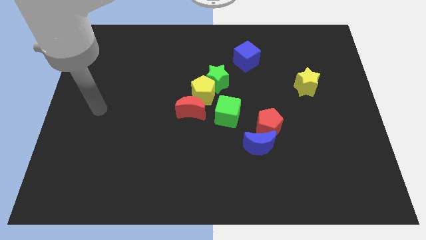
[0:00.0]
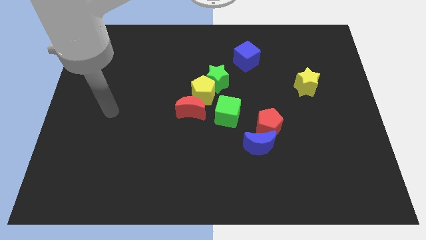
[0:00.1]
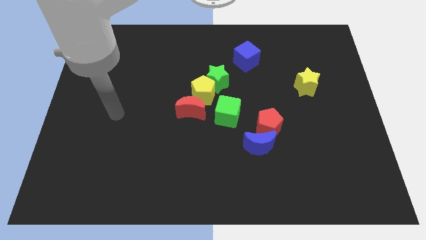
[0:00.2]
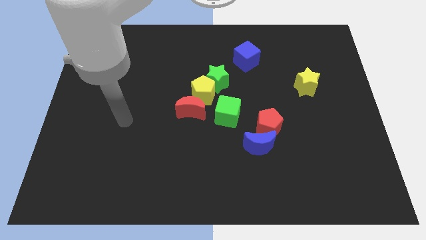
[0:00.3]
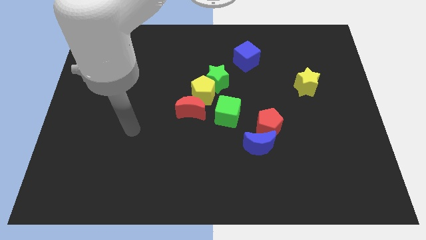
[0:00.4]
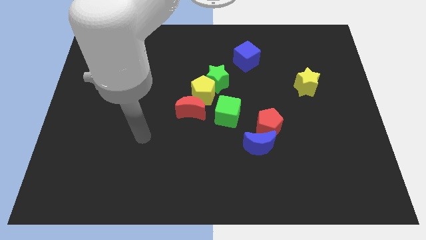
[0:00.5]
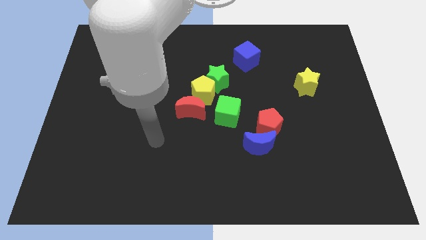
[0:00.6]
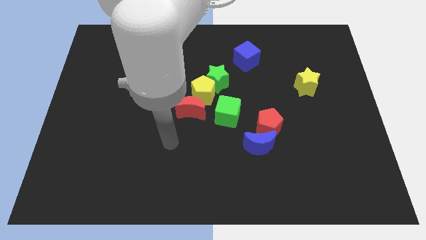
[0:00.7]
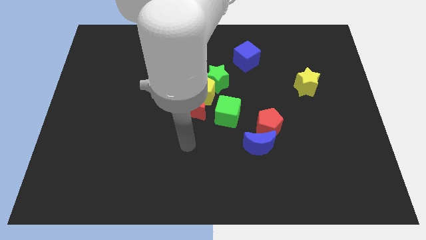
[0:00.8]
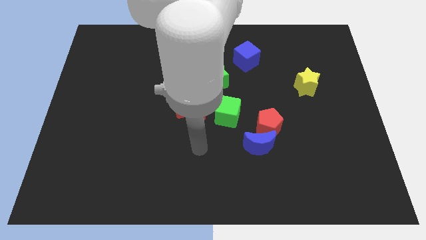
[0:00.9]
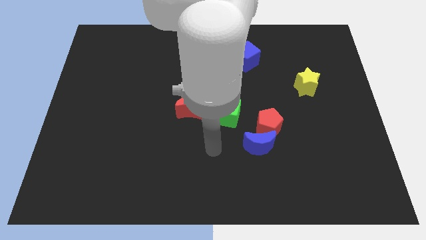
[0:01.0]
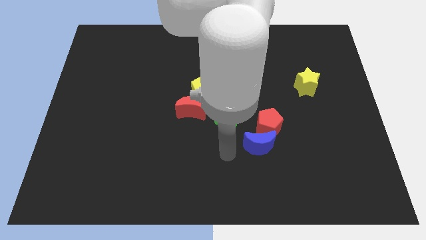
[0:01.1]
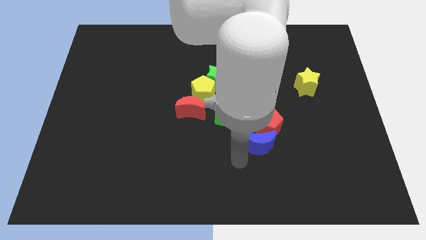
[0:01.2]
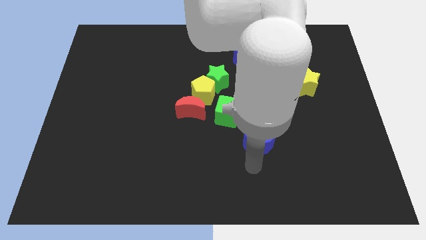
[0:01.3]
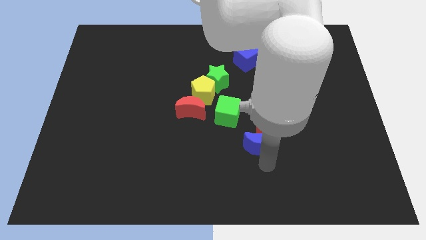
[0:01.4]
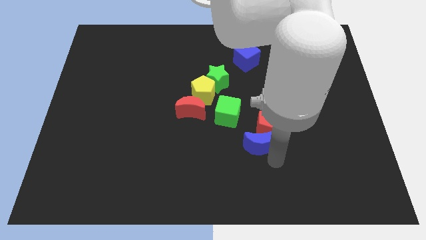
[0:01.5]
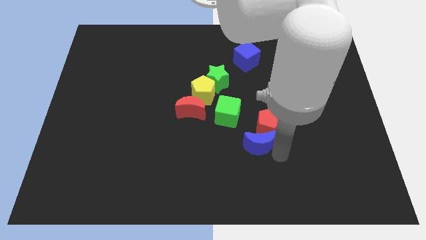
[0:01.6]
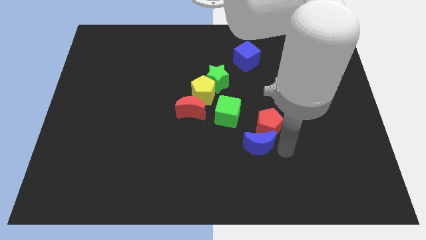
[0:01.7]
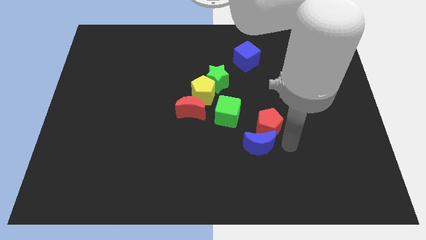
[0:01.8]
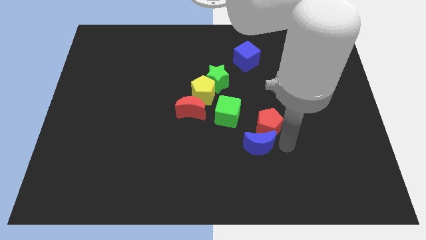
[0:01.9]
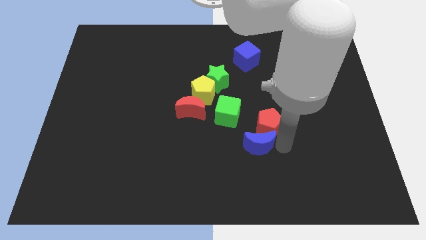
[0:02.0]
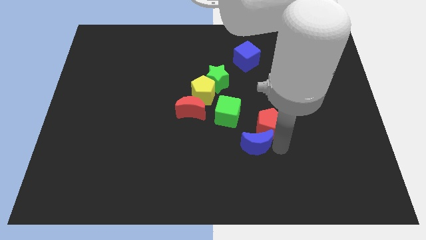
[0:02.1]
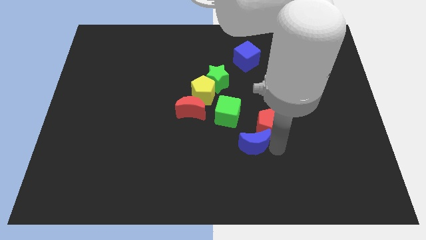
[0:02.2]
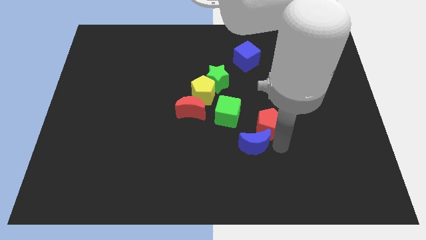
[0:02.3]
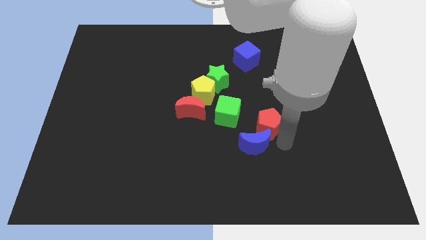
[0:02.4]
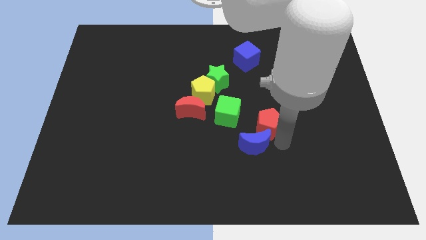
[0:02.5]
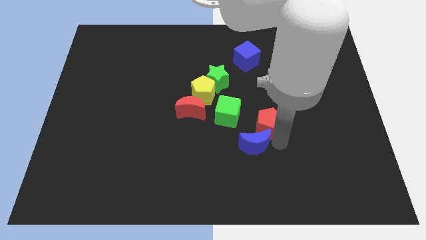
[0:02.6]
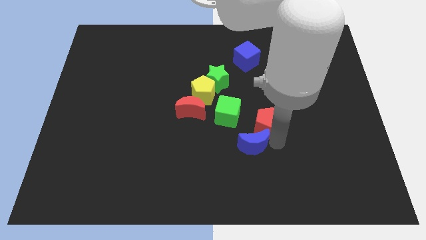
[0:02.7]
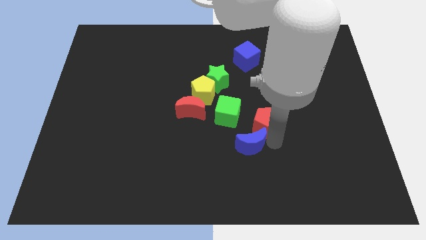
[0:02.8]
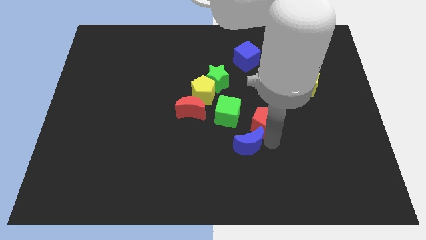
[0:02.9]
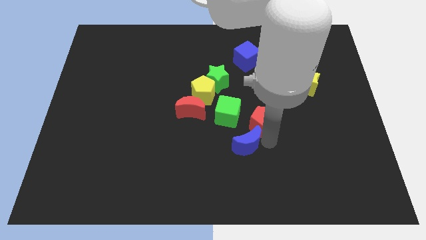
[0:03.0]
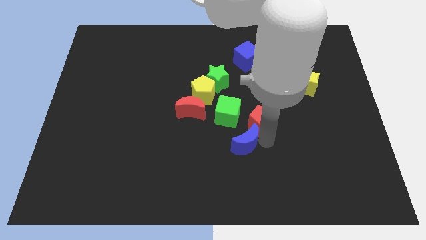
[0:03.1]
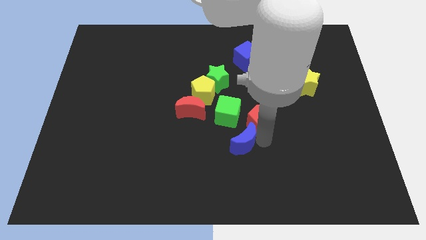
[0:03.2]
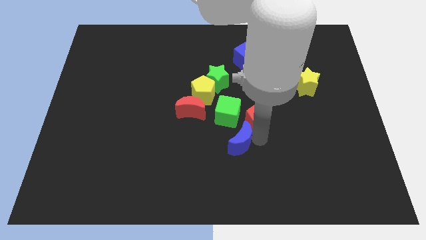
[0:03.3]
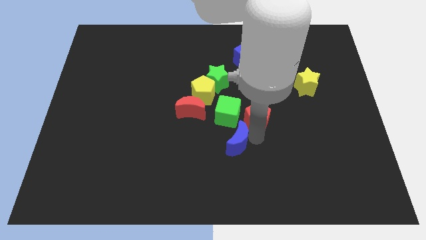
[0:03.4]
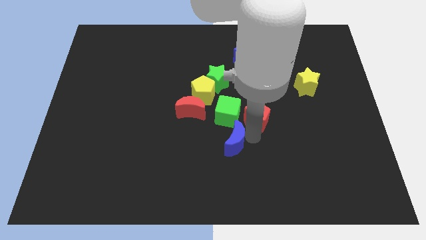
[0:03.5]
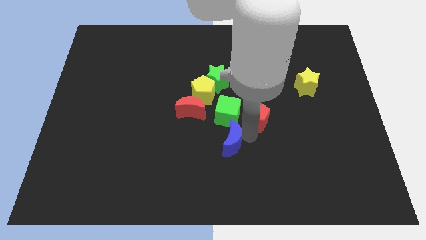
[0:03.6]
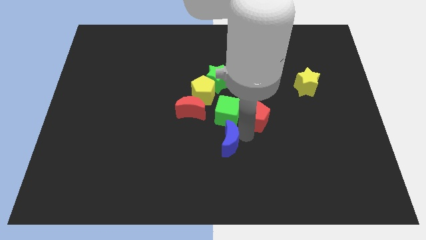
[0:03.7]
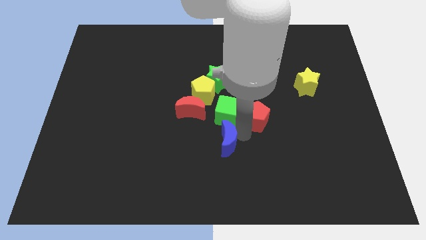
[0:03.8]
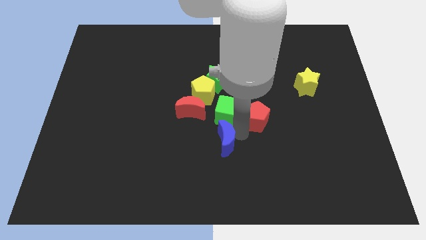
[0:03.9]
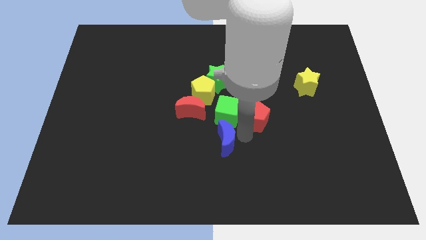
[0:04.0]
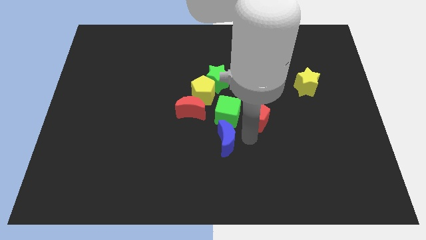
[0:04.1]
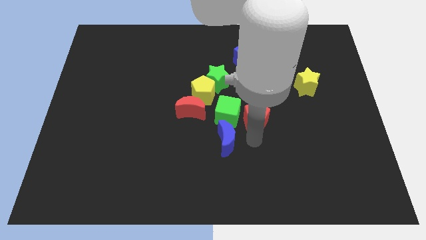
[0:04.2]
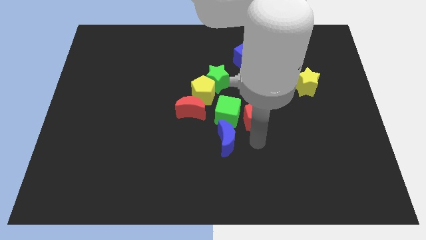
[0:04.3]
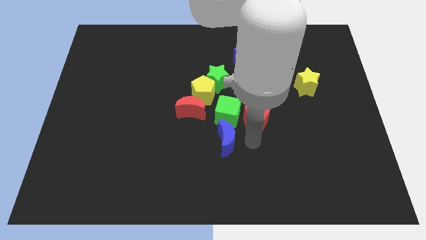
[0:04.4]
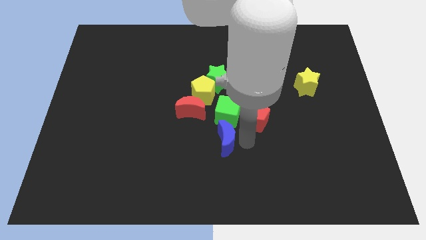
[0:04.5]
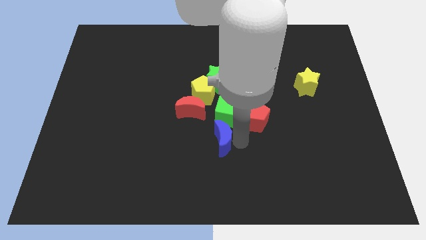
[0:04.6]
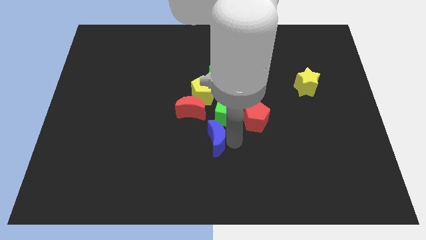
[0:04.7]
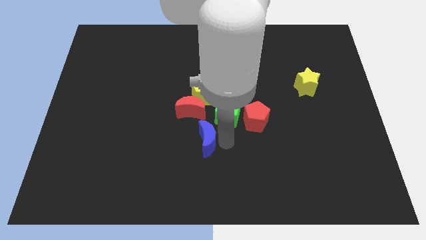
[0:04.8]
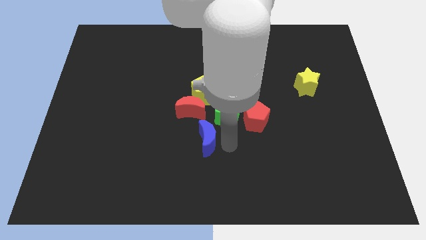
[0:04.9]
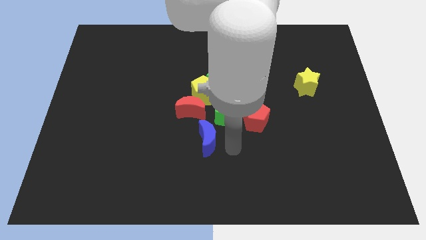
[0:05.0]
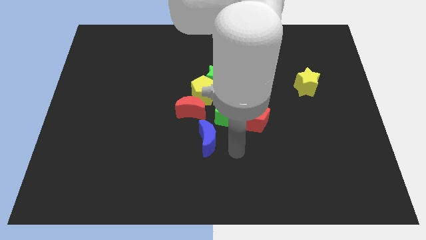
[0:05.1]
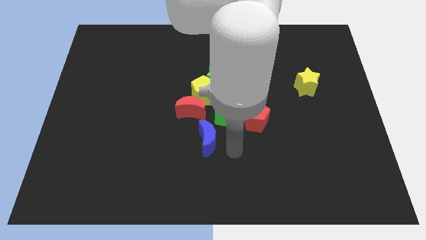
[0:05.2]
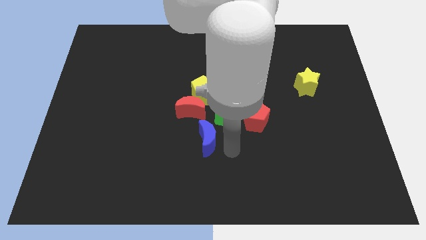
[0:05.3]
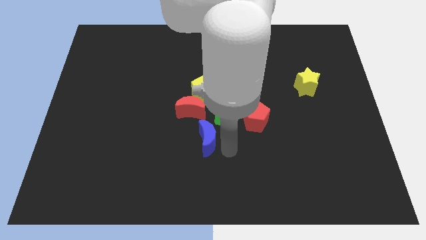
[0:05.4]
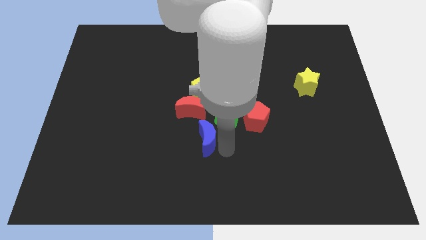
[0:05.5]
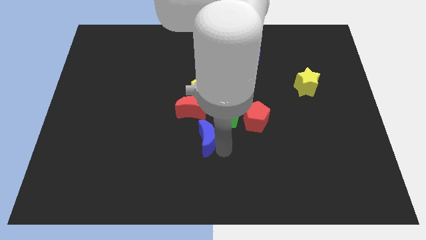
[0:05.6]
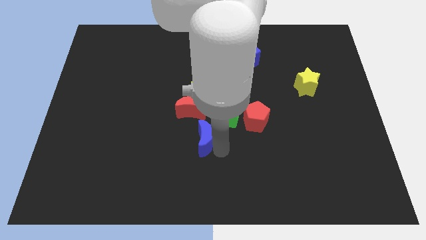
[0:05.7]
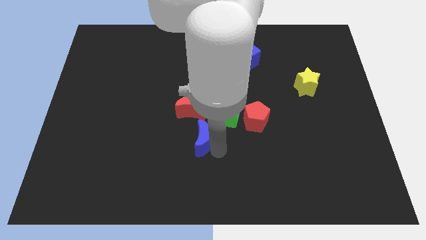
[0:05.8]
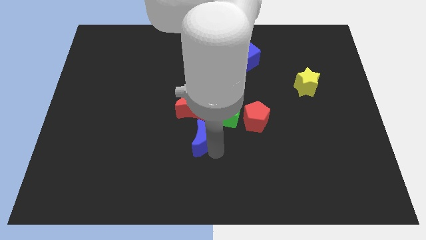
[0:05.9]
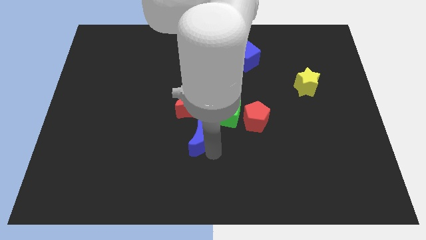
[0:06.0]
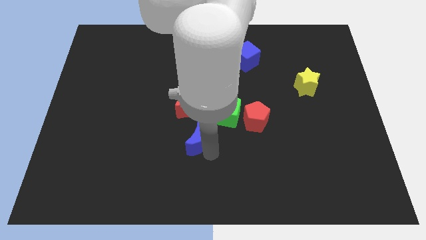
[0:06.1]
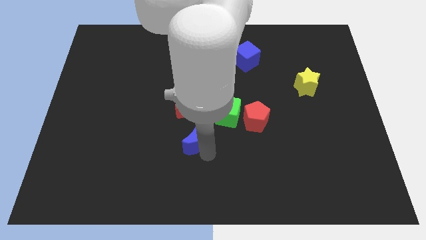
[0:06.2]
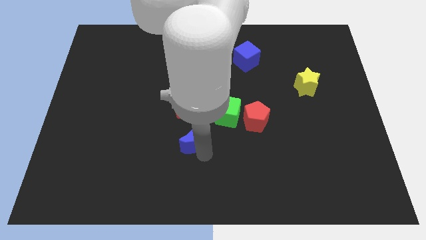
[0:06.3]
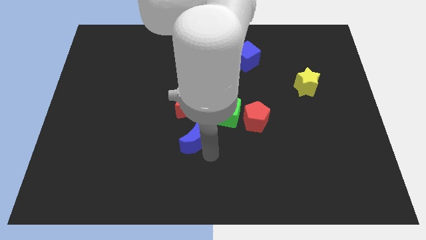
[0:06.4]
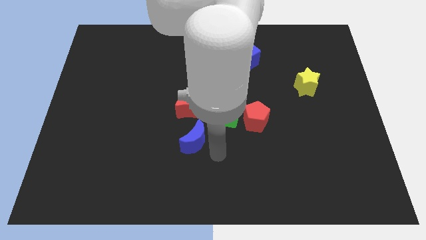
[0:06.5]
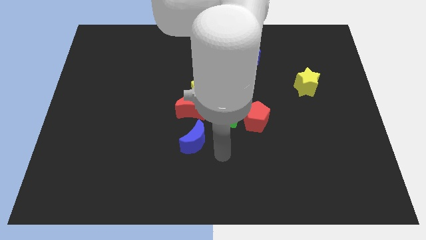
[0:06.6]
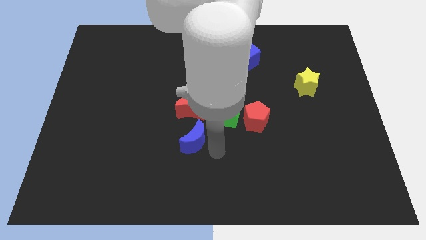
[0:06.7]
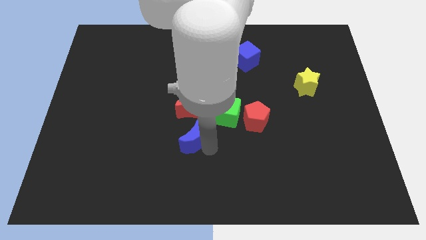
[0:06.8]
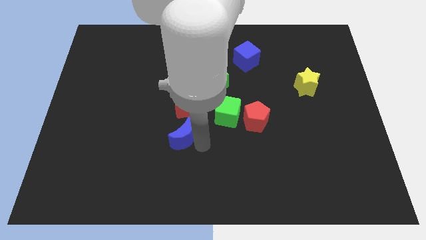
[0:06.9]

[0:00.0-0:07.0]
push the blue moon to the bottom left side of the red moon
